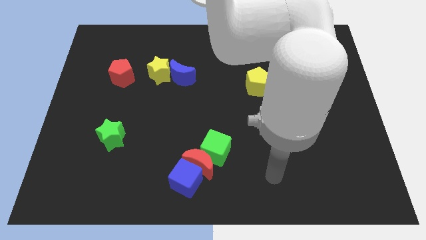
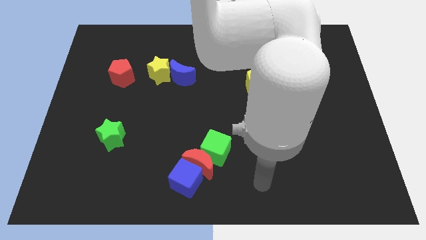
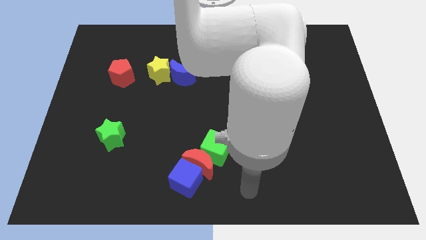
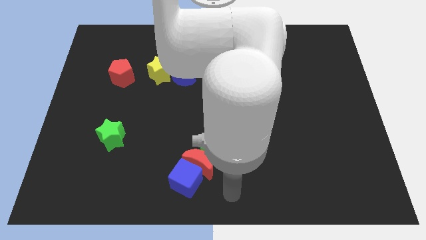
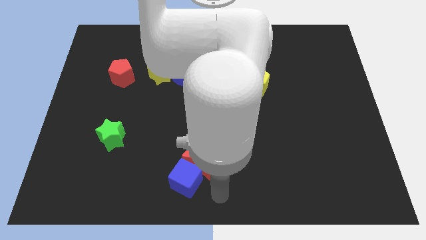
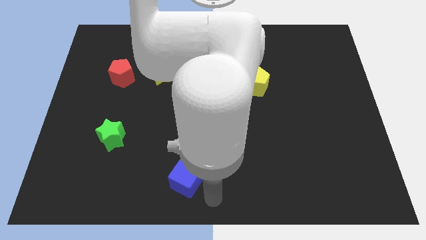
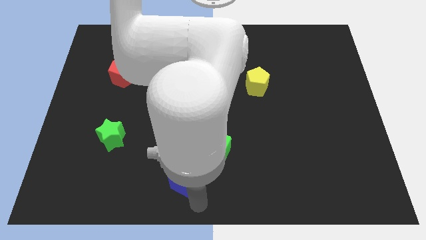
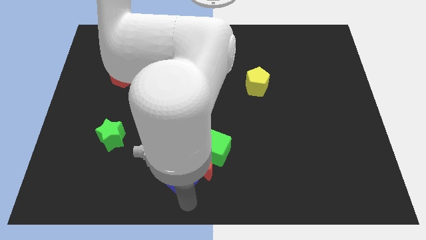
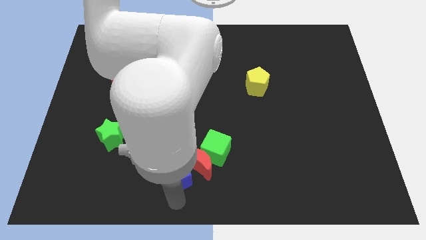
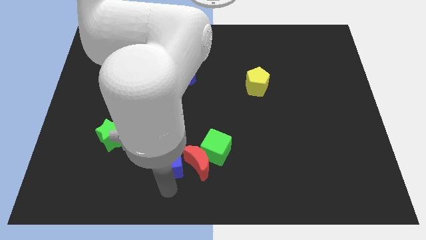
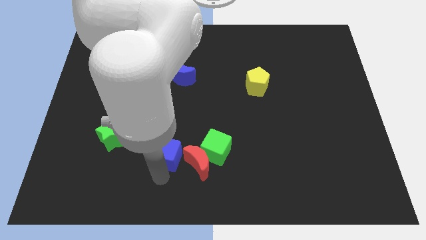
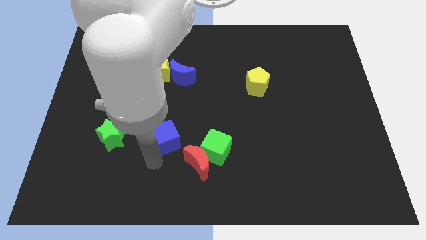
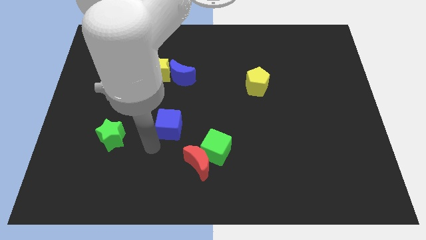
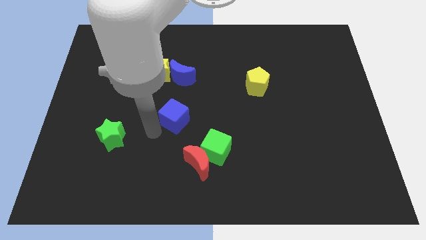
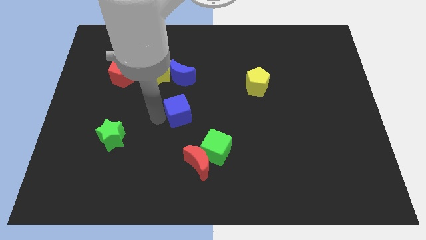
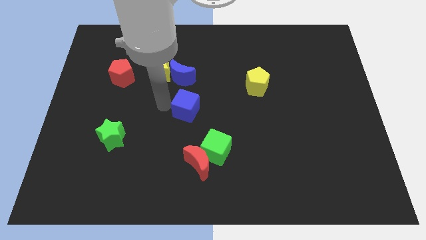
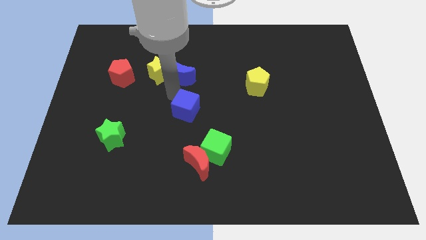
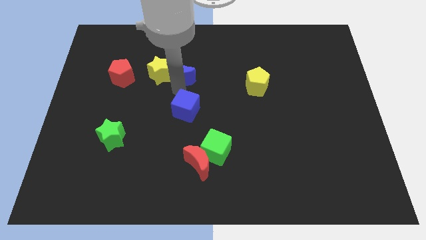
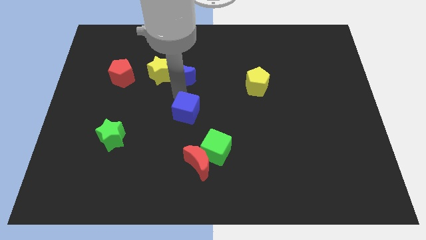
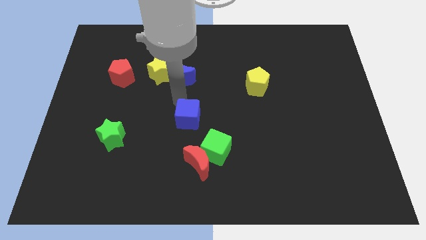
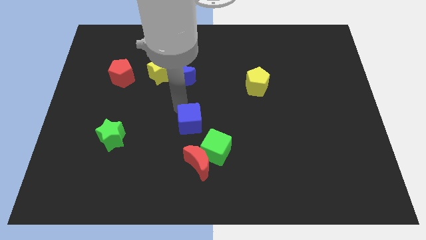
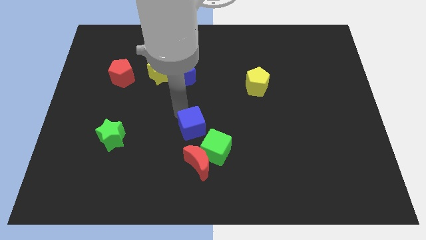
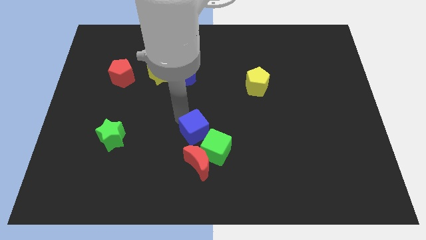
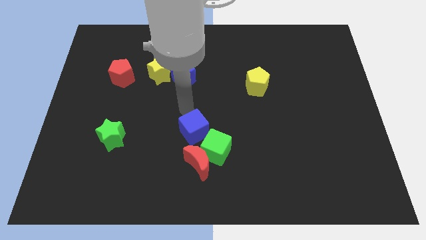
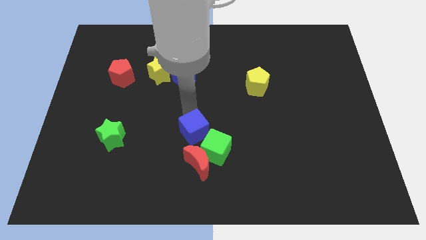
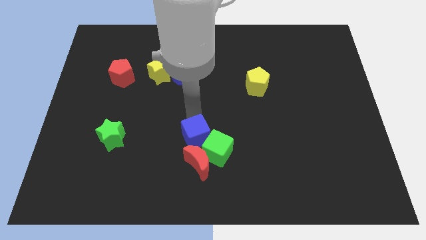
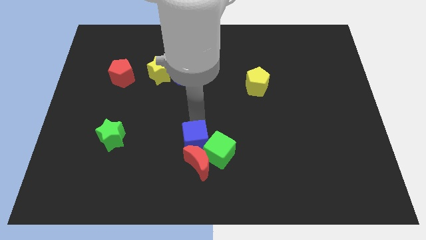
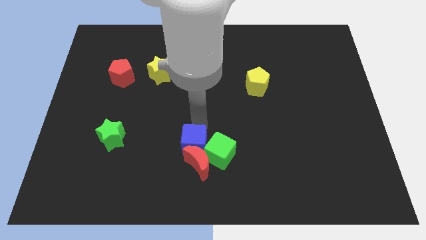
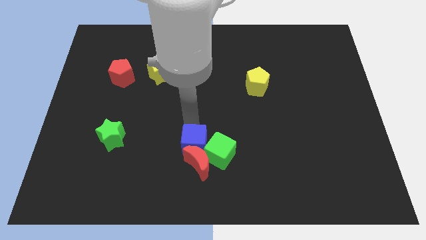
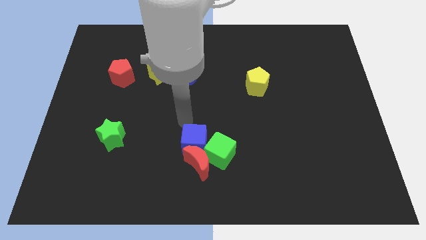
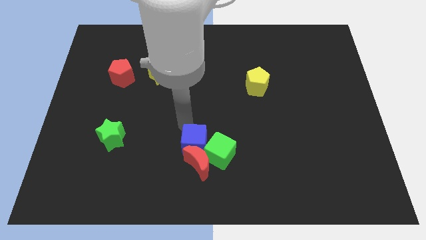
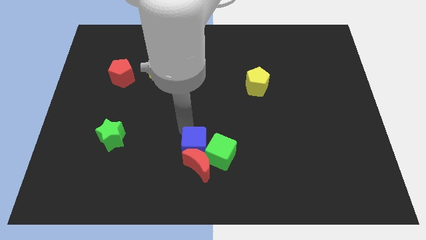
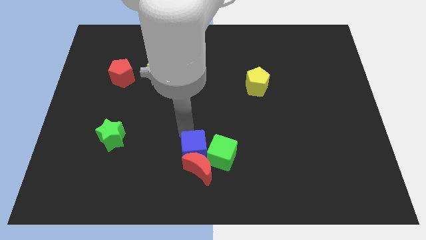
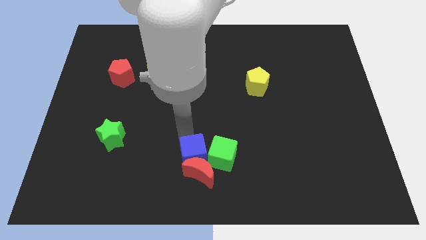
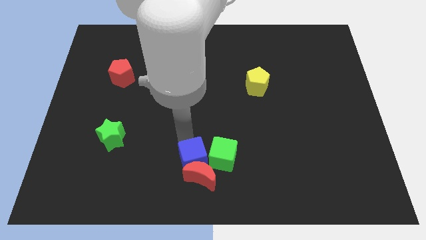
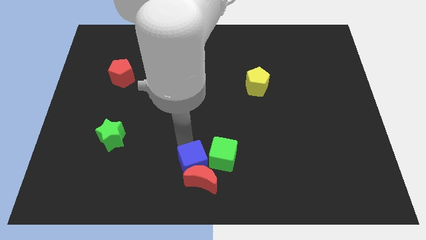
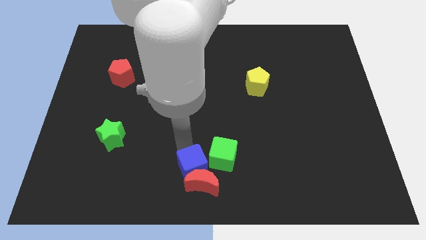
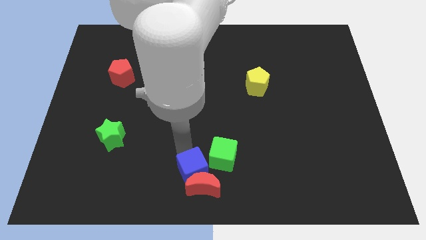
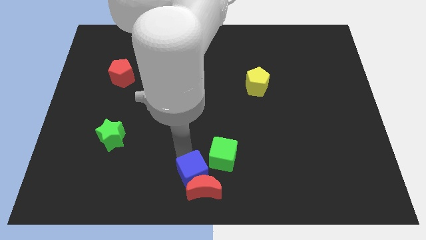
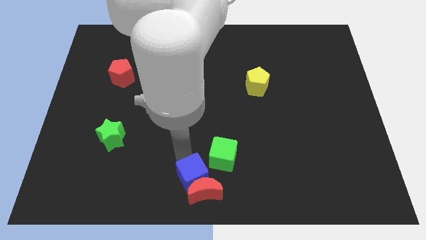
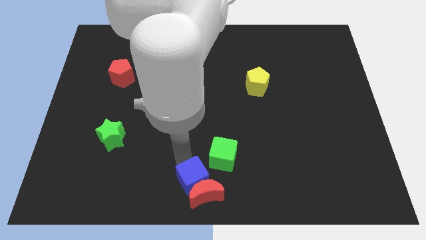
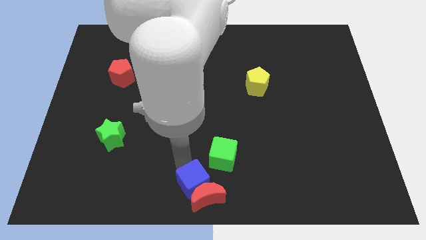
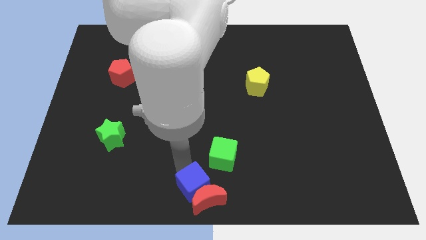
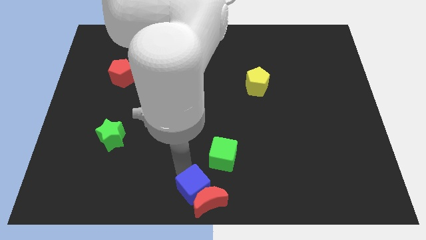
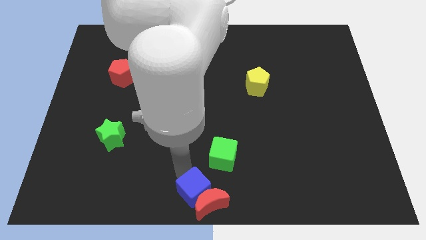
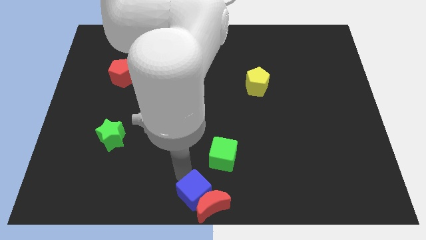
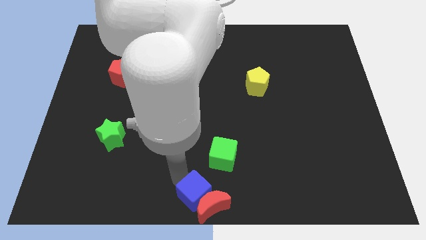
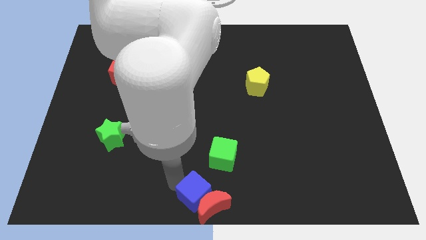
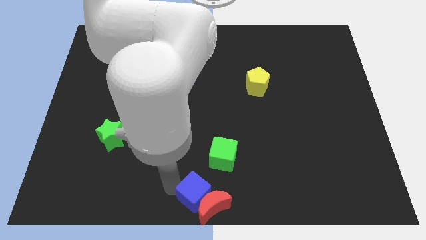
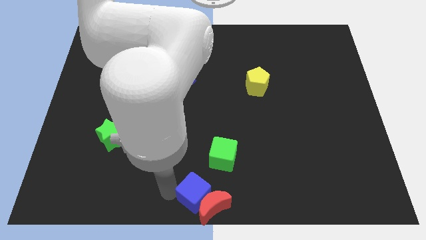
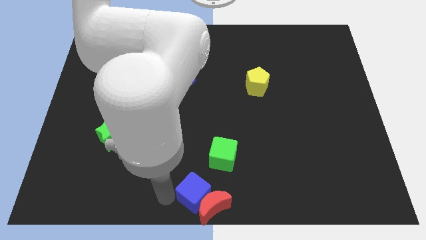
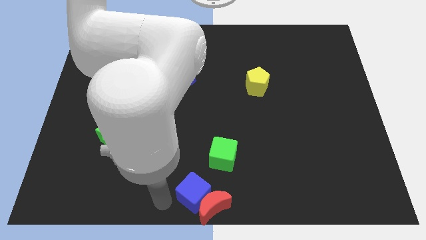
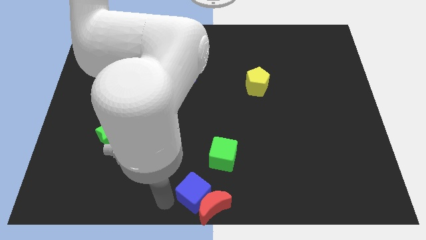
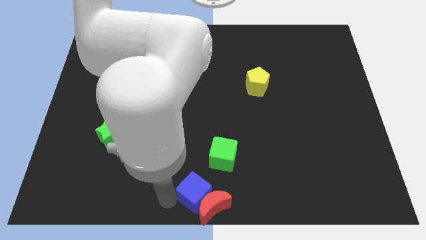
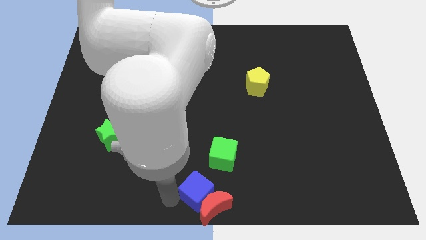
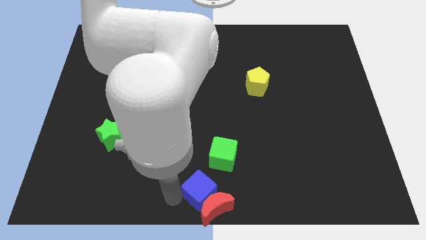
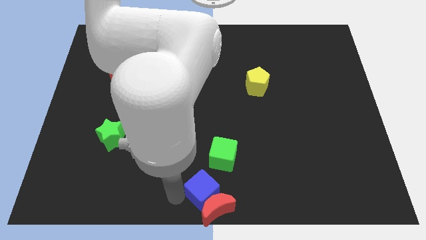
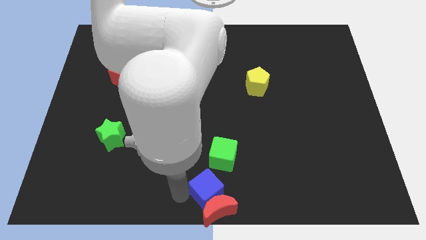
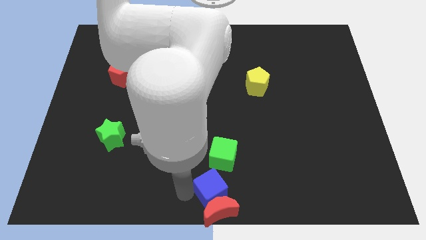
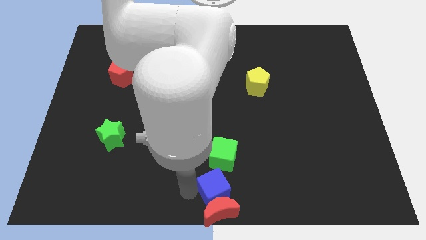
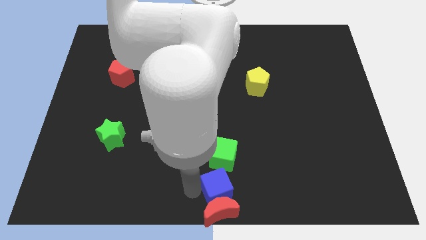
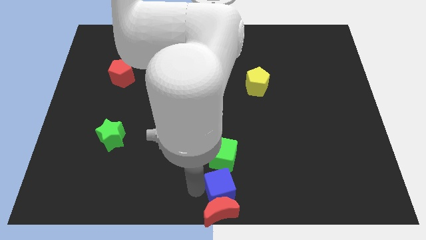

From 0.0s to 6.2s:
move the blue cube a bit to the right

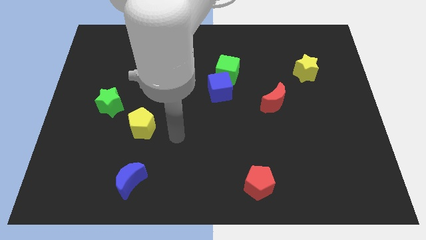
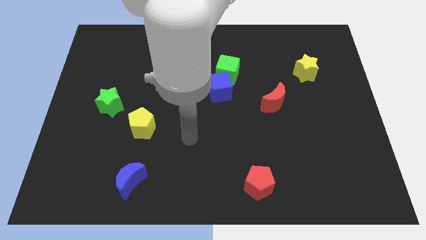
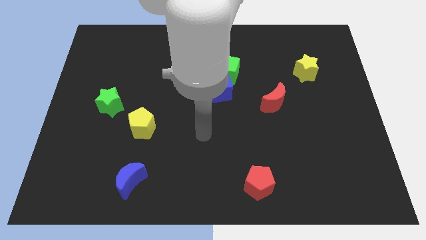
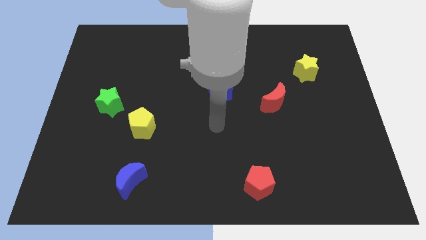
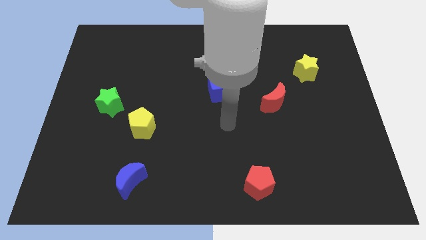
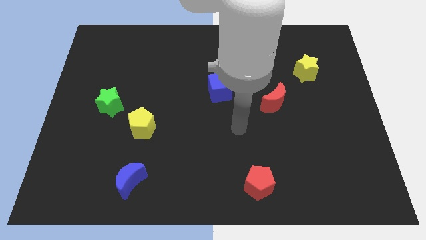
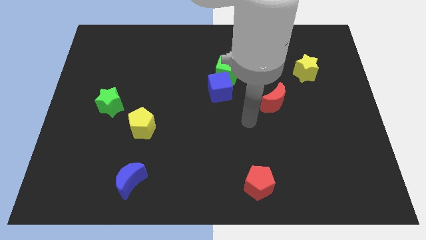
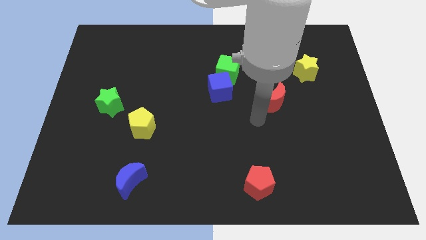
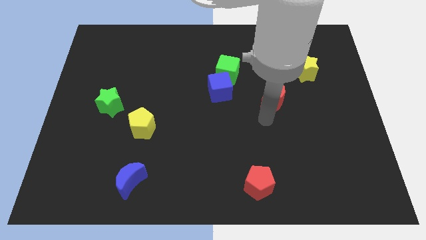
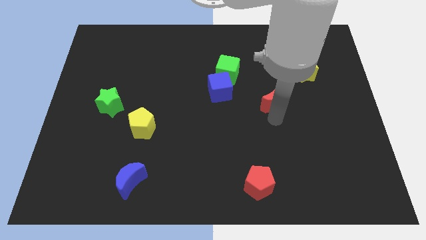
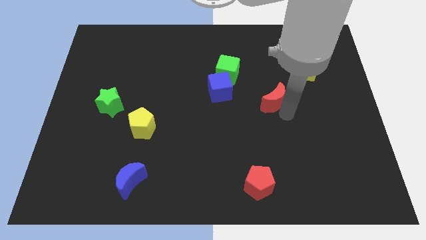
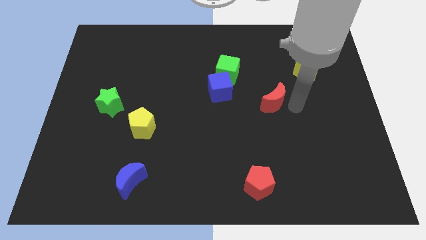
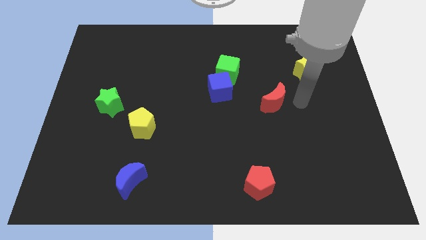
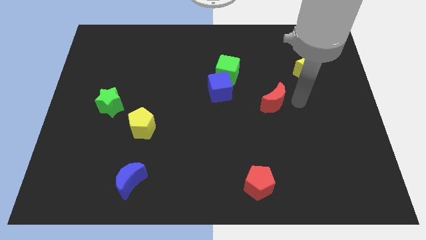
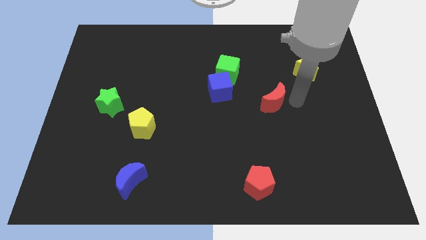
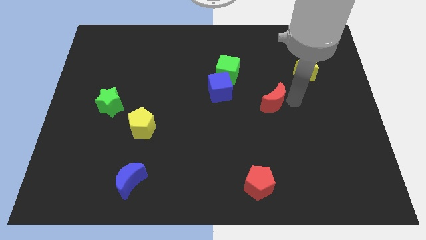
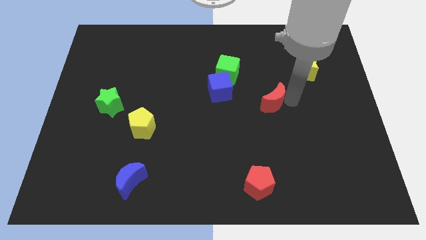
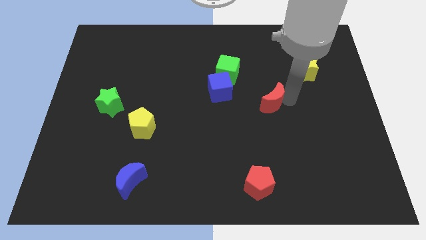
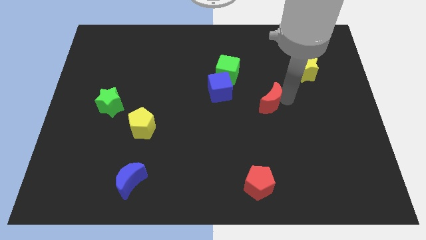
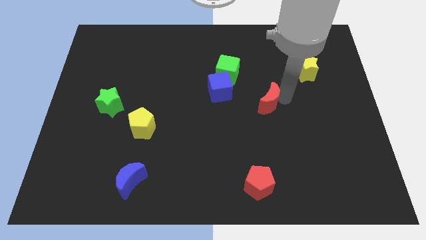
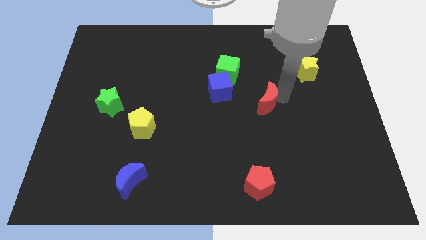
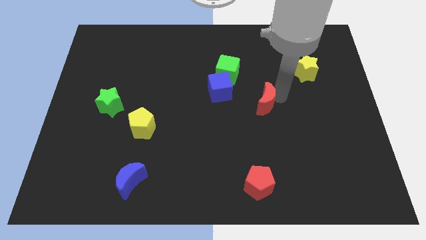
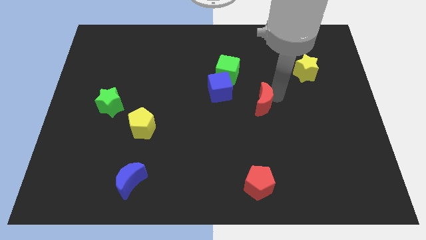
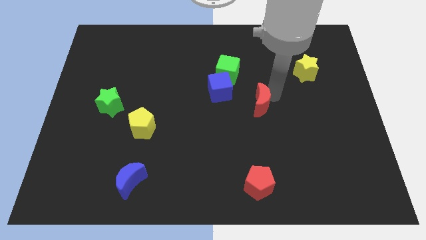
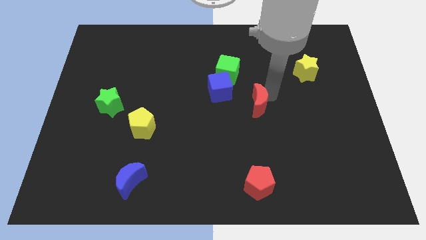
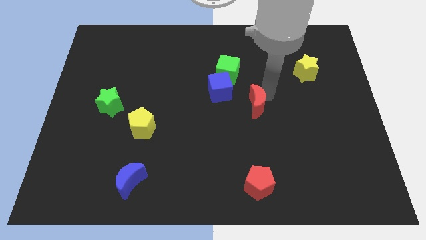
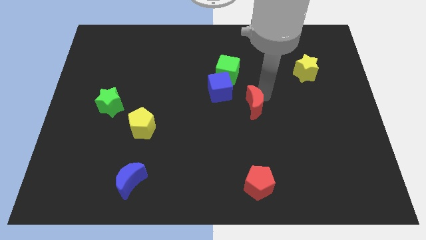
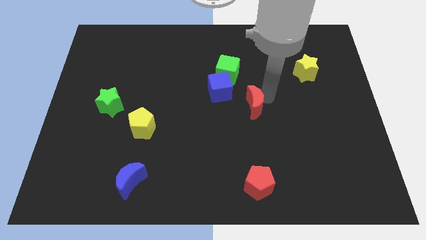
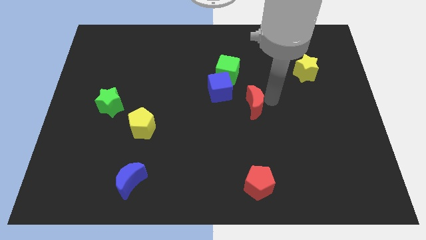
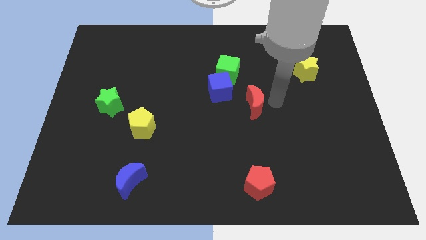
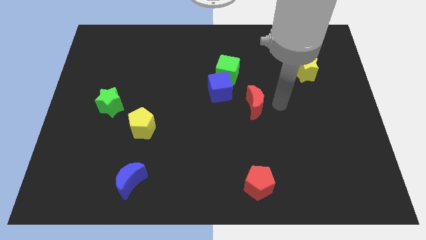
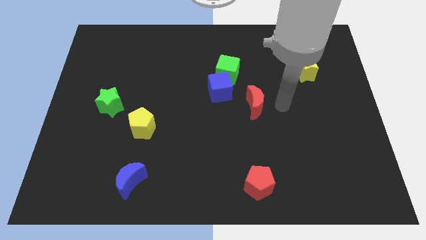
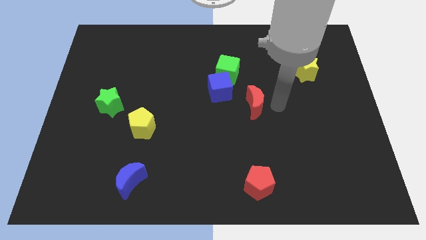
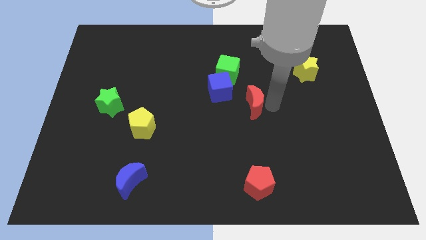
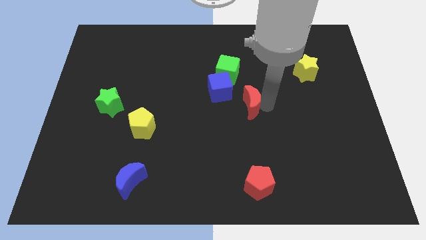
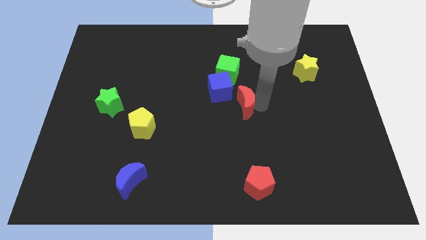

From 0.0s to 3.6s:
slide the red moon to the left a little
